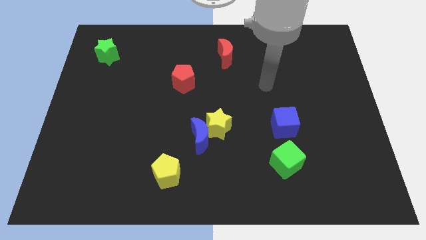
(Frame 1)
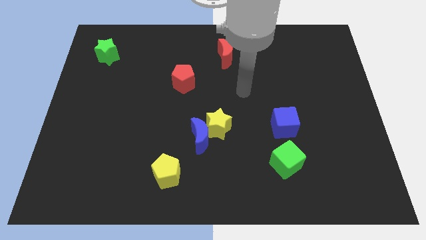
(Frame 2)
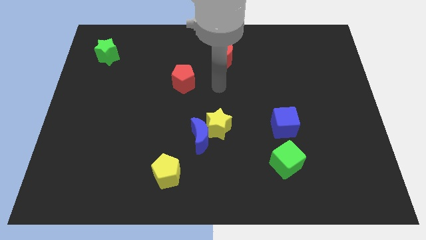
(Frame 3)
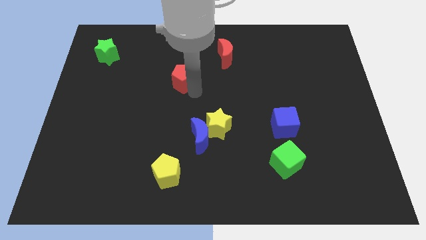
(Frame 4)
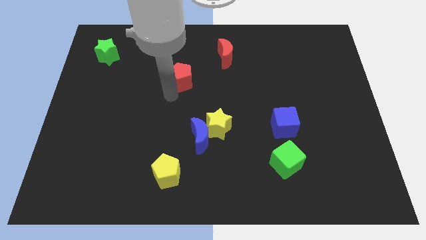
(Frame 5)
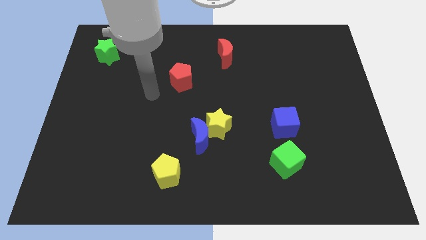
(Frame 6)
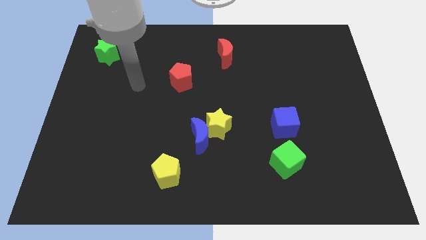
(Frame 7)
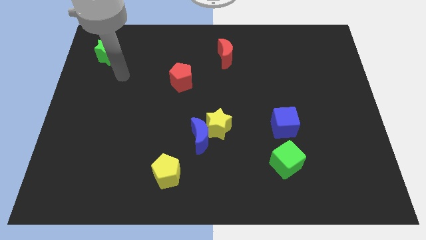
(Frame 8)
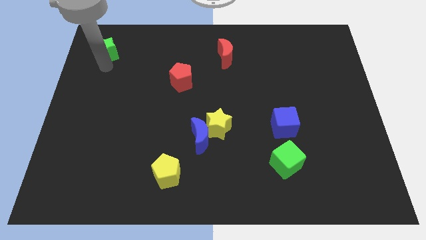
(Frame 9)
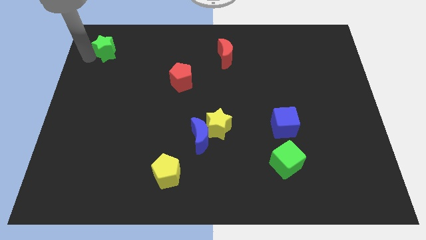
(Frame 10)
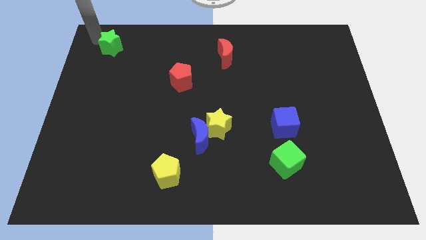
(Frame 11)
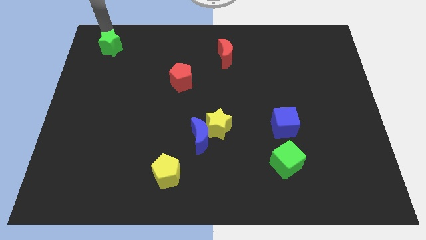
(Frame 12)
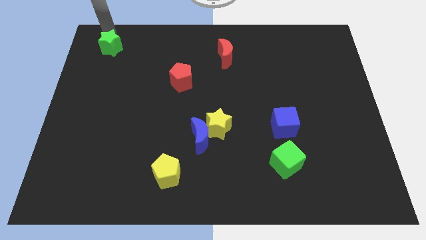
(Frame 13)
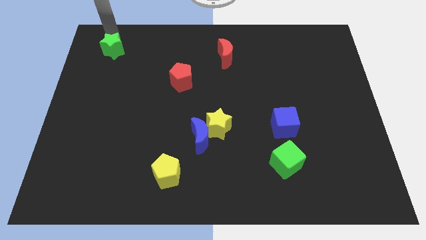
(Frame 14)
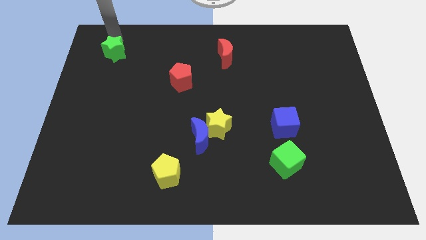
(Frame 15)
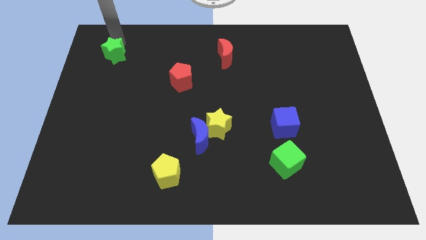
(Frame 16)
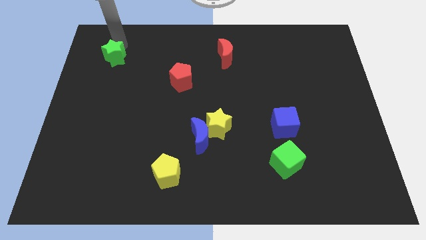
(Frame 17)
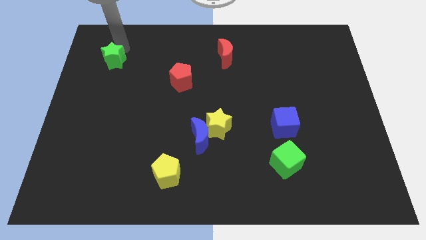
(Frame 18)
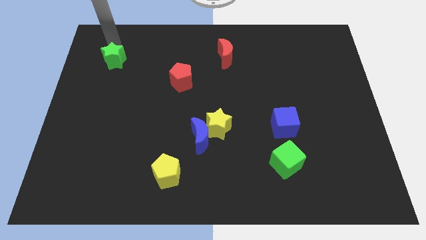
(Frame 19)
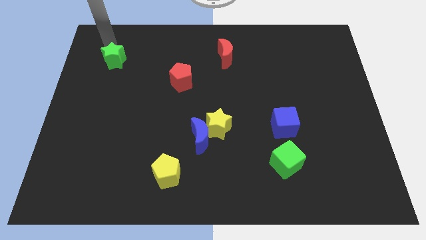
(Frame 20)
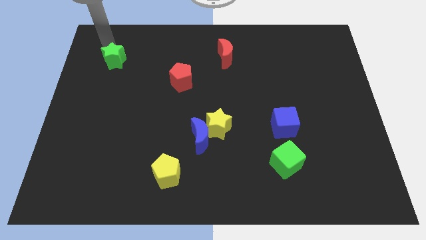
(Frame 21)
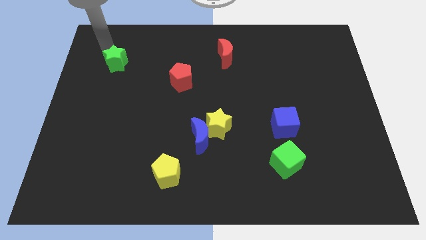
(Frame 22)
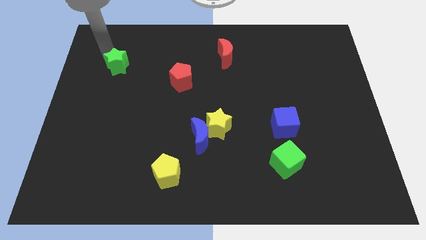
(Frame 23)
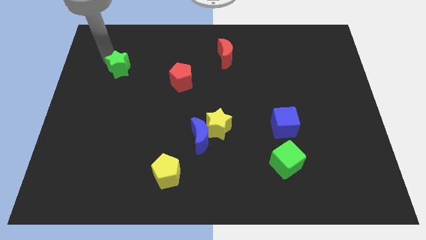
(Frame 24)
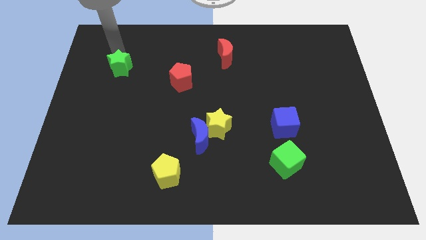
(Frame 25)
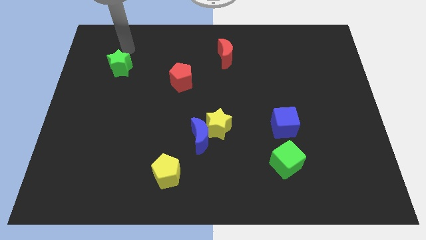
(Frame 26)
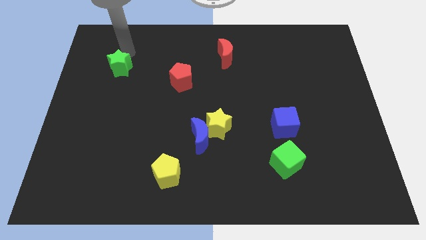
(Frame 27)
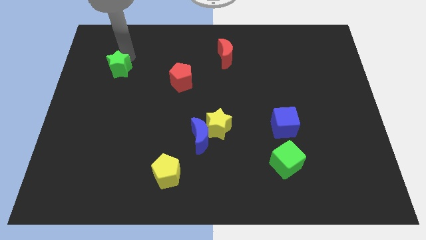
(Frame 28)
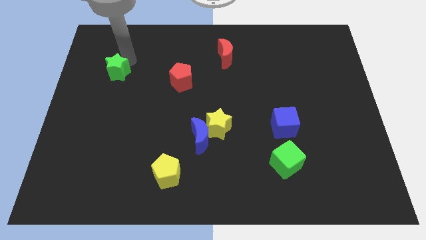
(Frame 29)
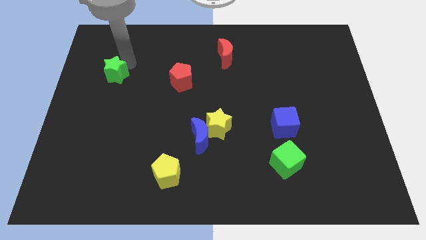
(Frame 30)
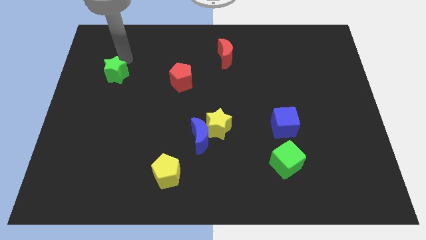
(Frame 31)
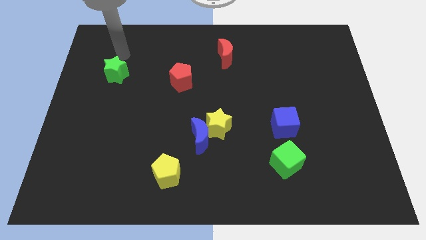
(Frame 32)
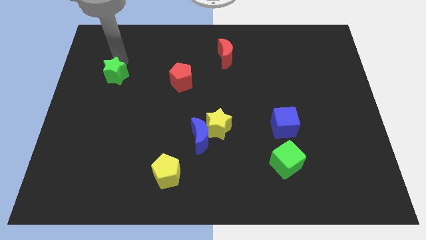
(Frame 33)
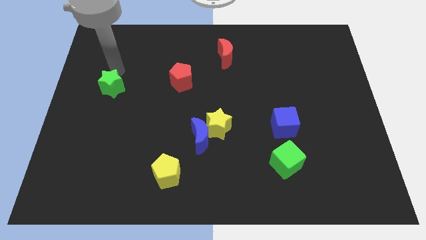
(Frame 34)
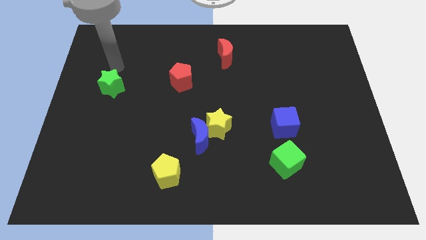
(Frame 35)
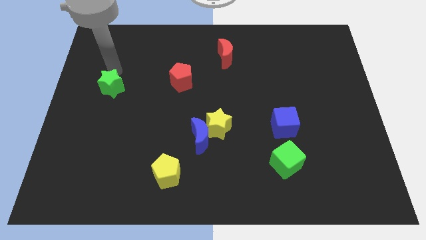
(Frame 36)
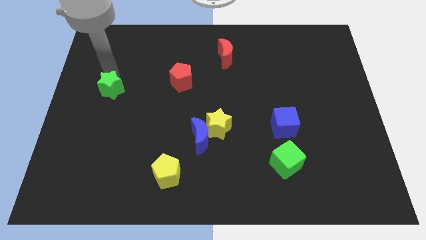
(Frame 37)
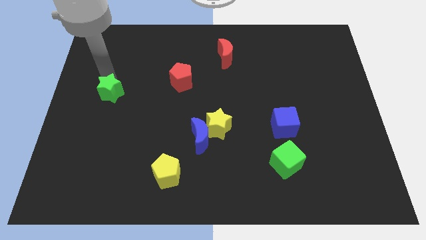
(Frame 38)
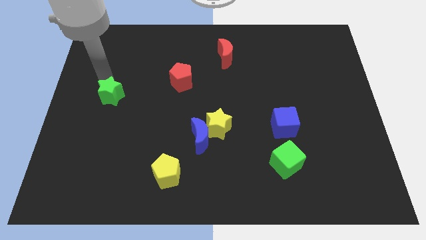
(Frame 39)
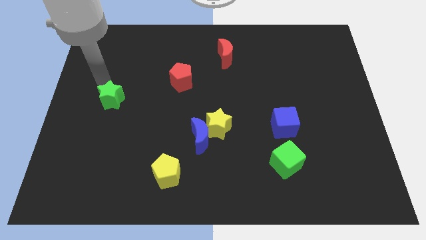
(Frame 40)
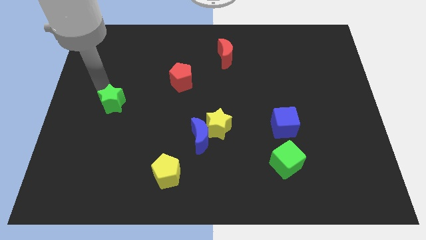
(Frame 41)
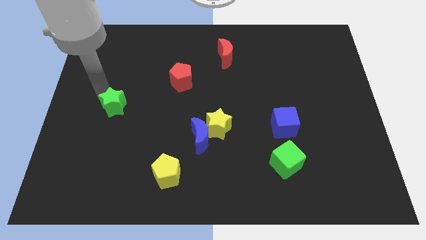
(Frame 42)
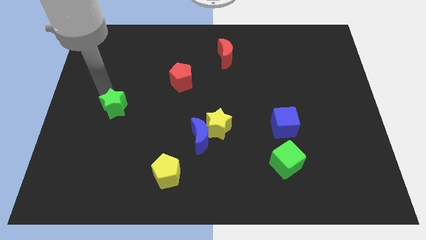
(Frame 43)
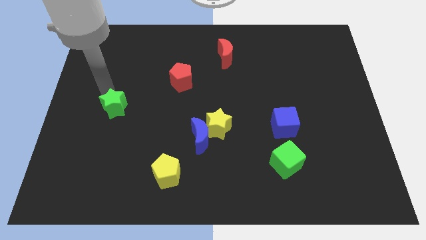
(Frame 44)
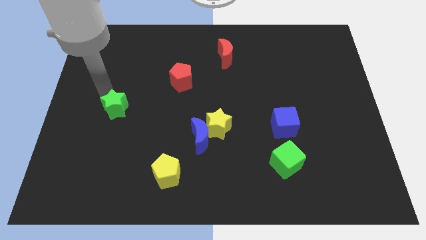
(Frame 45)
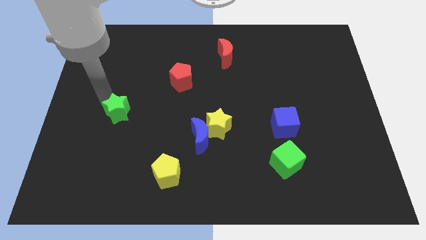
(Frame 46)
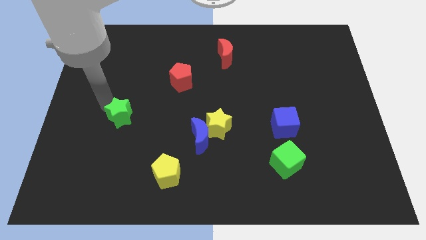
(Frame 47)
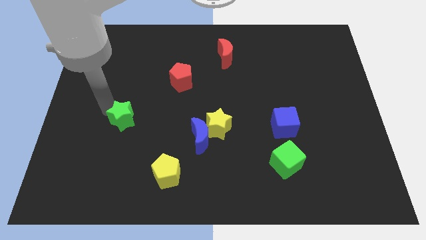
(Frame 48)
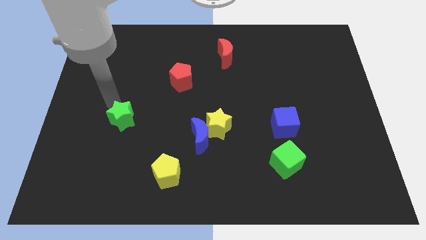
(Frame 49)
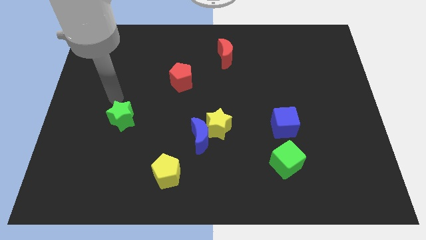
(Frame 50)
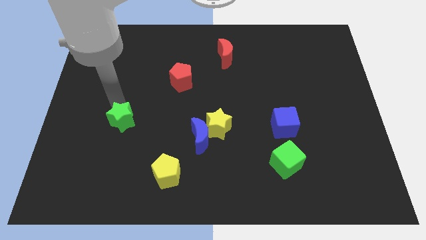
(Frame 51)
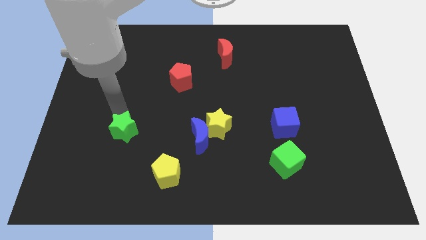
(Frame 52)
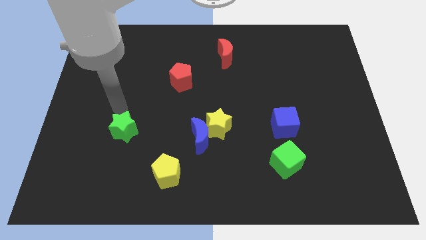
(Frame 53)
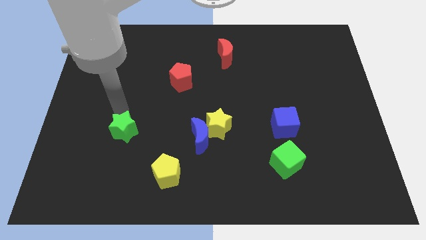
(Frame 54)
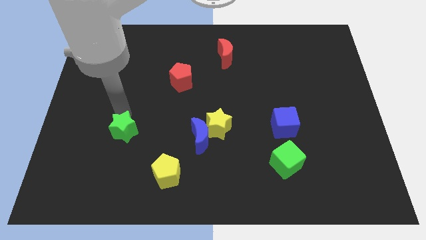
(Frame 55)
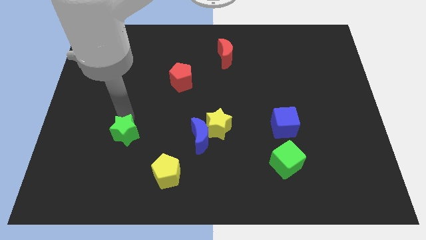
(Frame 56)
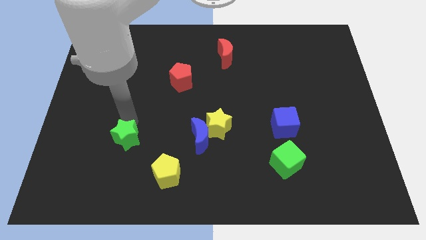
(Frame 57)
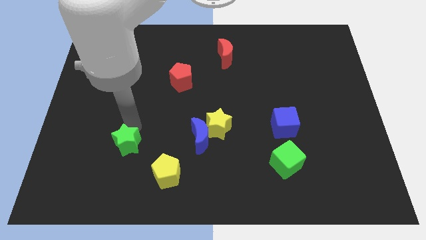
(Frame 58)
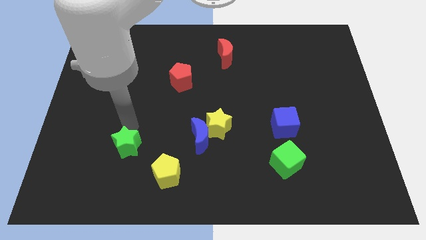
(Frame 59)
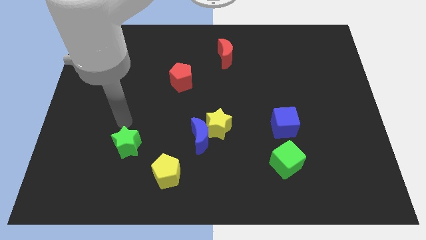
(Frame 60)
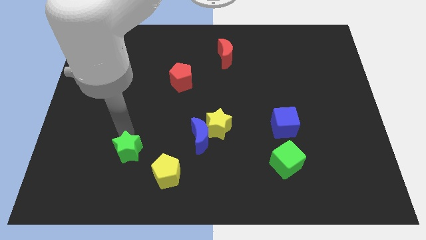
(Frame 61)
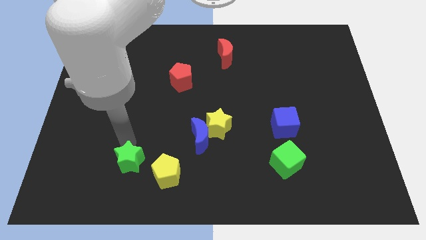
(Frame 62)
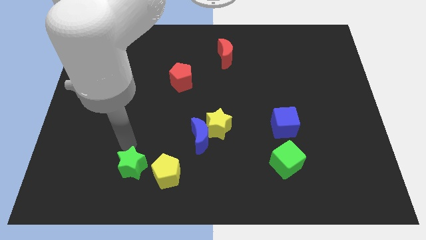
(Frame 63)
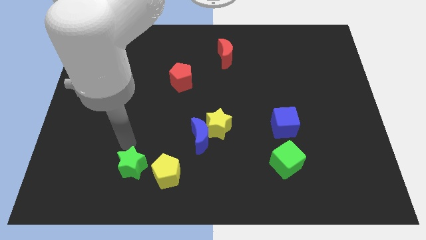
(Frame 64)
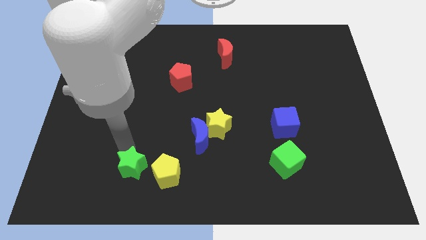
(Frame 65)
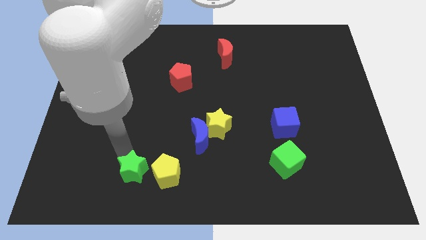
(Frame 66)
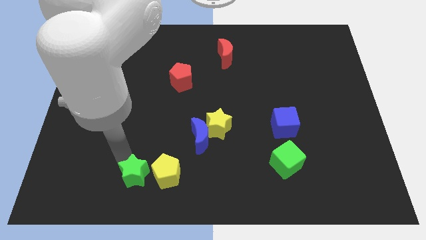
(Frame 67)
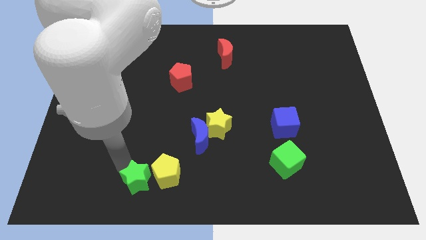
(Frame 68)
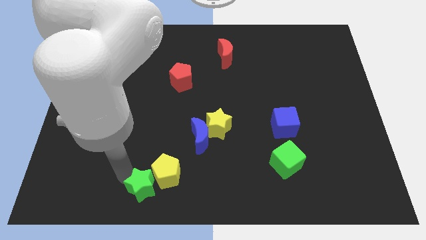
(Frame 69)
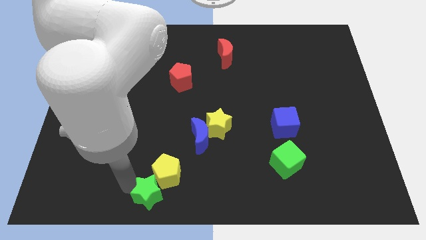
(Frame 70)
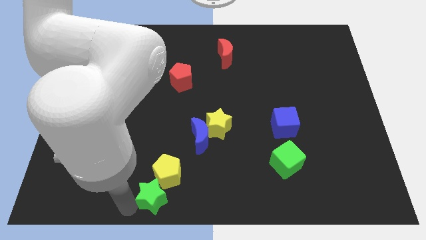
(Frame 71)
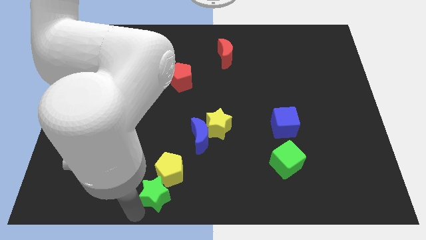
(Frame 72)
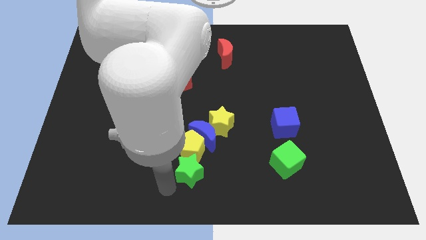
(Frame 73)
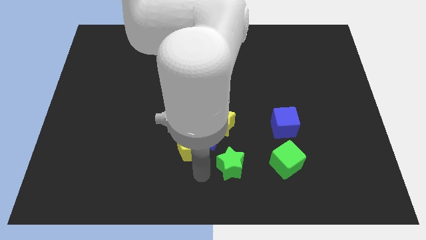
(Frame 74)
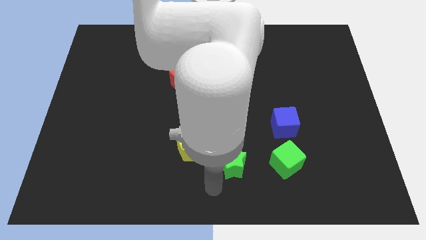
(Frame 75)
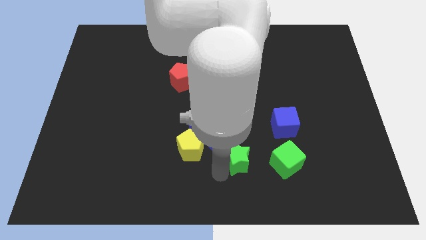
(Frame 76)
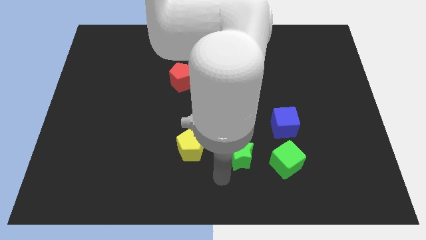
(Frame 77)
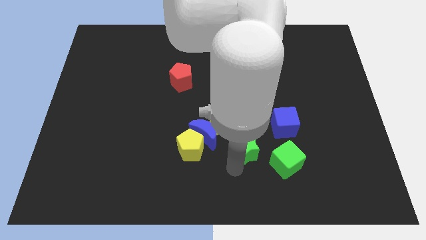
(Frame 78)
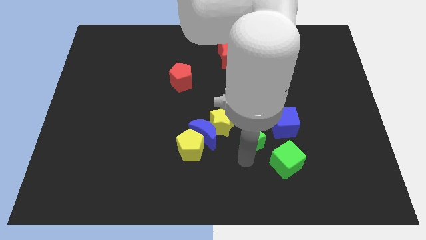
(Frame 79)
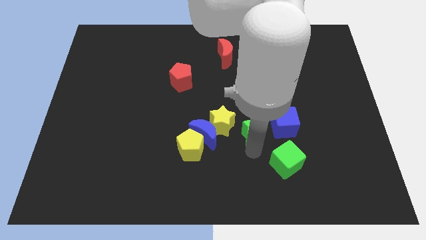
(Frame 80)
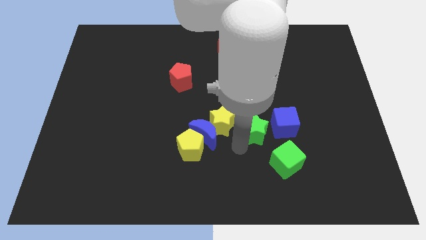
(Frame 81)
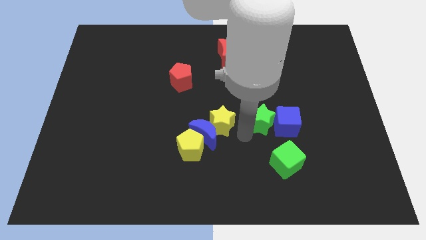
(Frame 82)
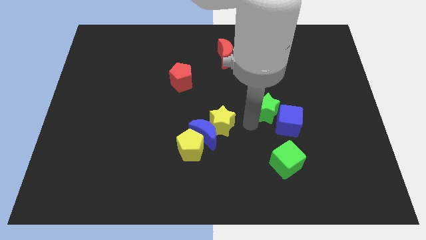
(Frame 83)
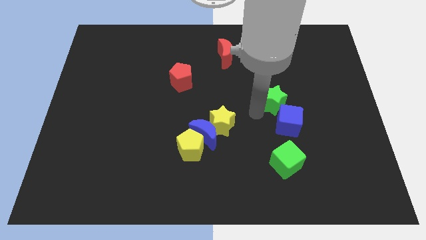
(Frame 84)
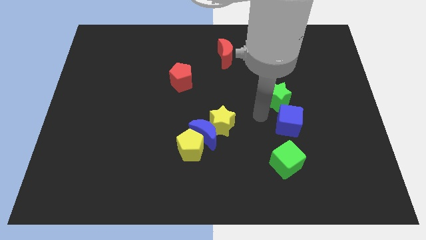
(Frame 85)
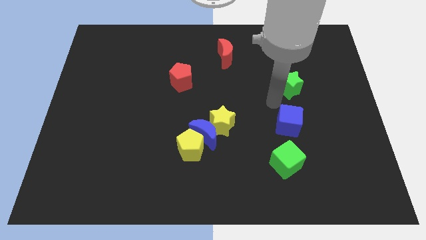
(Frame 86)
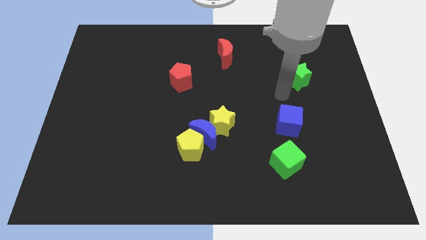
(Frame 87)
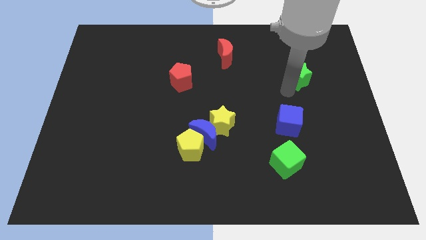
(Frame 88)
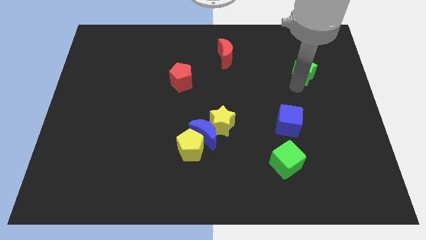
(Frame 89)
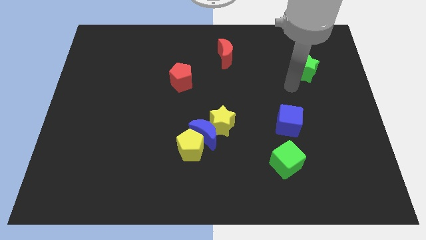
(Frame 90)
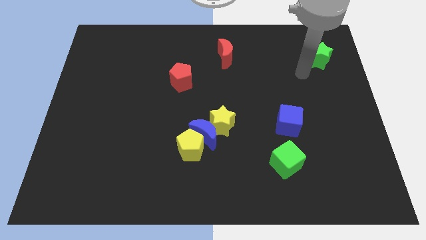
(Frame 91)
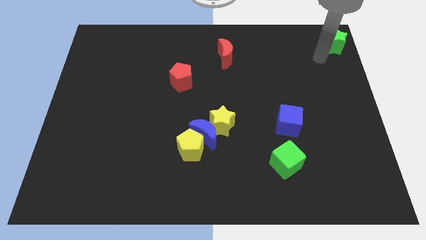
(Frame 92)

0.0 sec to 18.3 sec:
push the green star to the upper right corner
